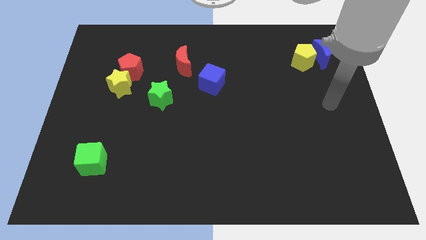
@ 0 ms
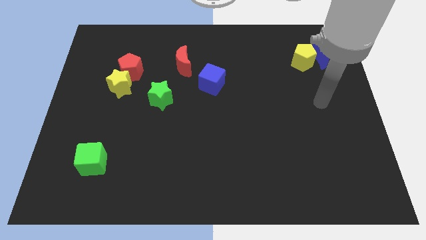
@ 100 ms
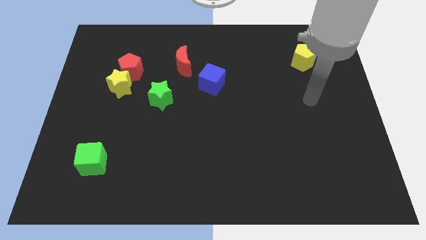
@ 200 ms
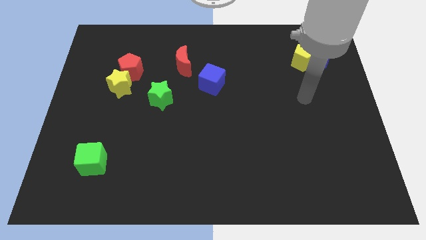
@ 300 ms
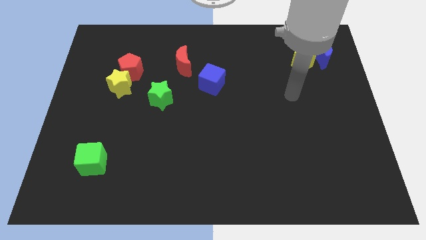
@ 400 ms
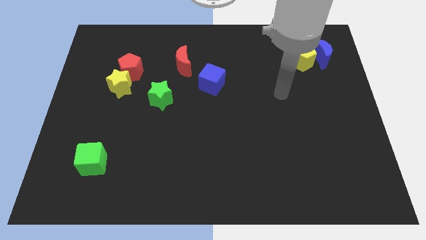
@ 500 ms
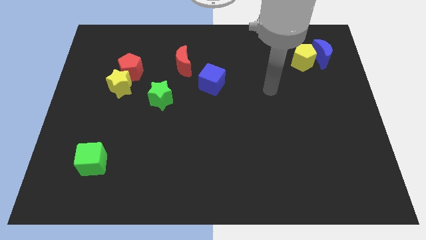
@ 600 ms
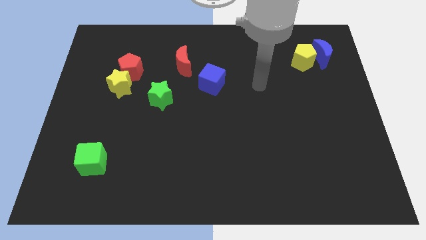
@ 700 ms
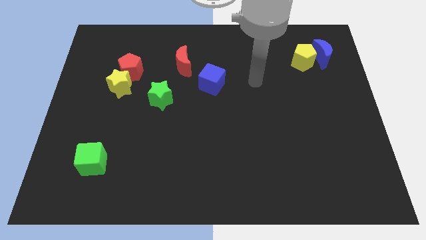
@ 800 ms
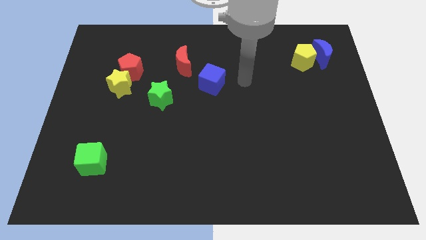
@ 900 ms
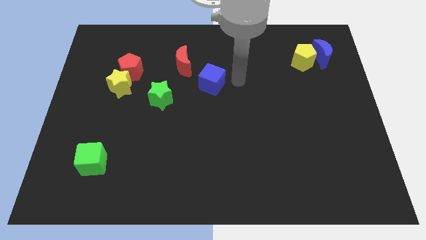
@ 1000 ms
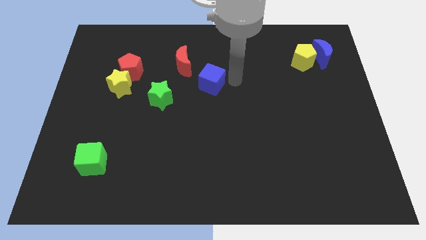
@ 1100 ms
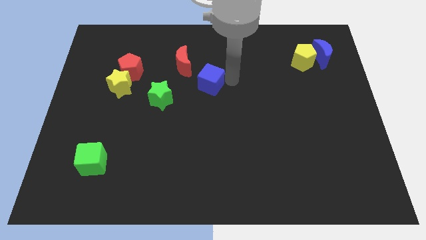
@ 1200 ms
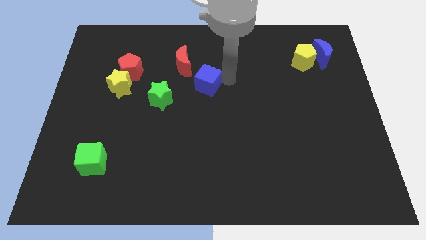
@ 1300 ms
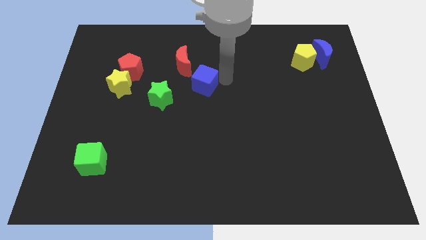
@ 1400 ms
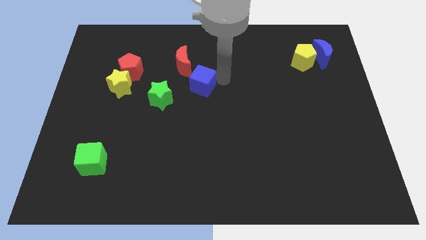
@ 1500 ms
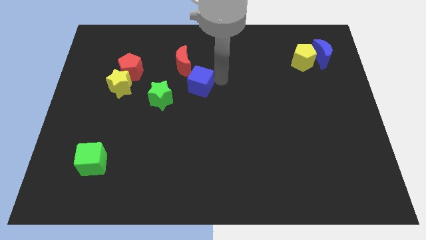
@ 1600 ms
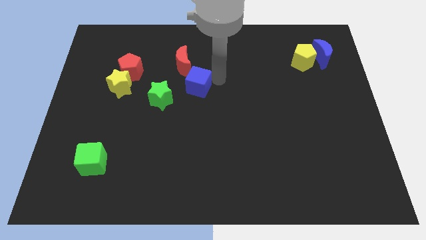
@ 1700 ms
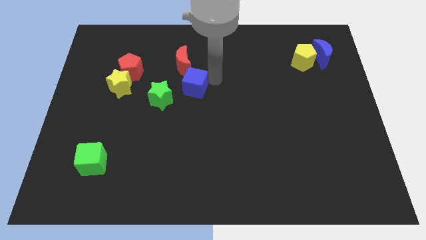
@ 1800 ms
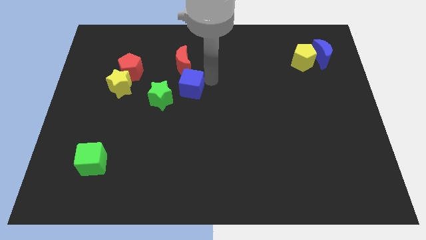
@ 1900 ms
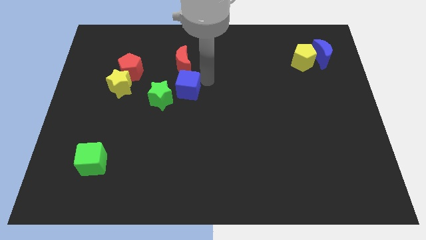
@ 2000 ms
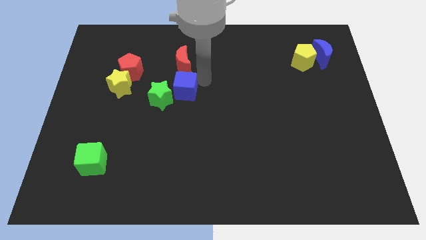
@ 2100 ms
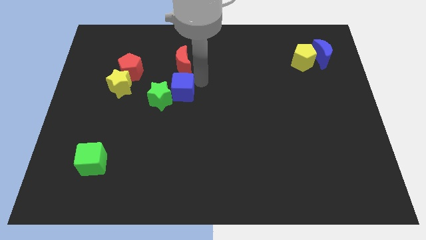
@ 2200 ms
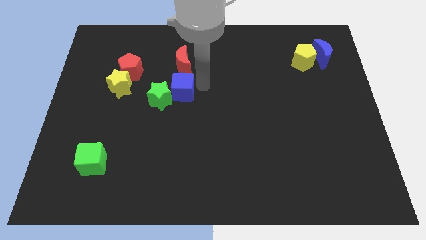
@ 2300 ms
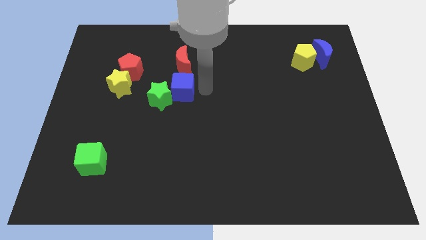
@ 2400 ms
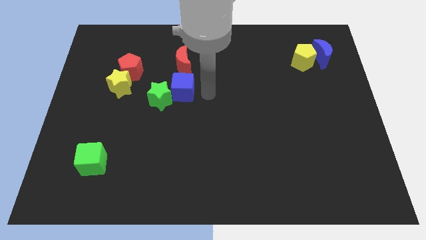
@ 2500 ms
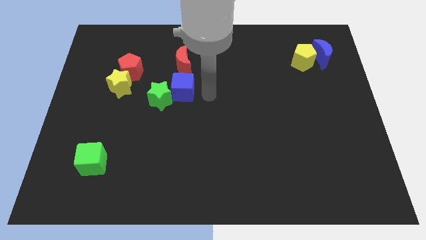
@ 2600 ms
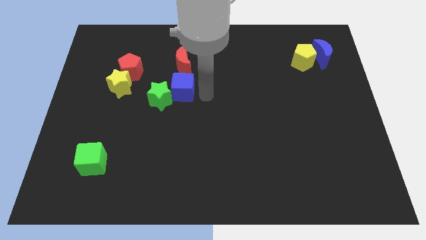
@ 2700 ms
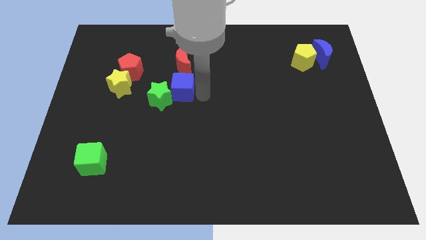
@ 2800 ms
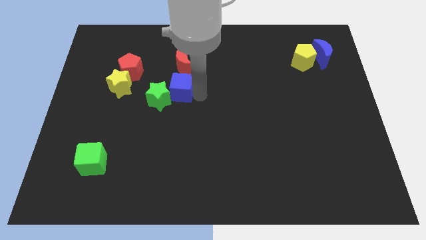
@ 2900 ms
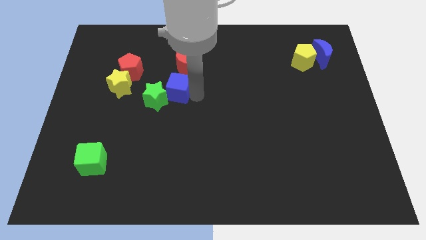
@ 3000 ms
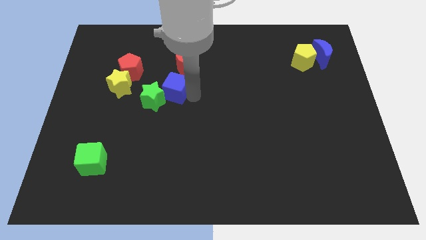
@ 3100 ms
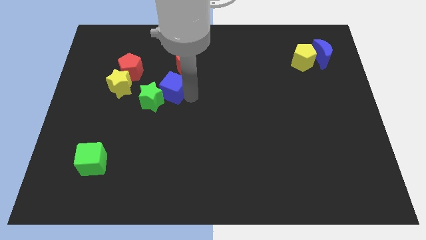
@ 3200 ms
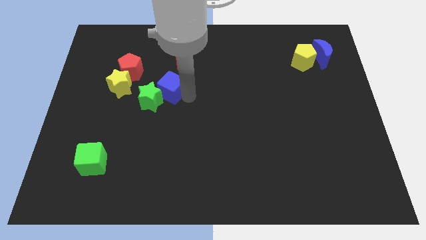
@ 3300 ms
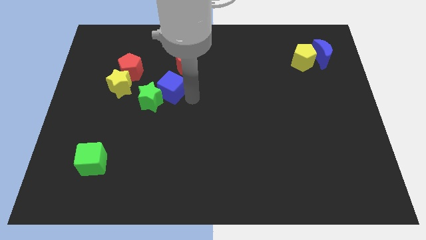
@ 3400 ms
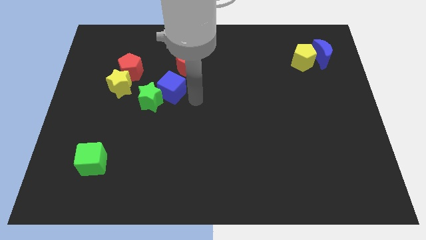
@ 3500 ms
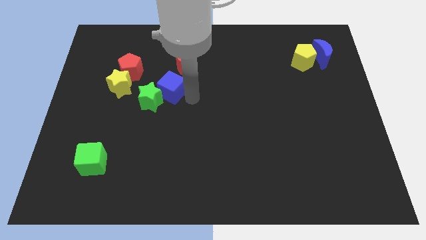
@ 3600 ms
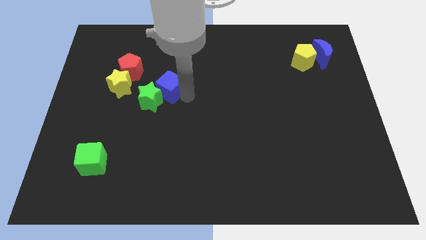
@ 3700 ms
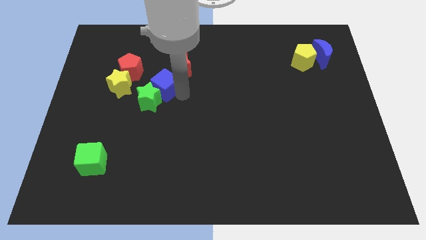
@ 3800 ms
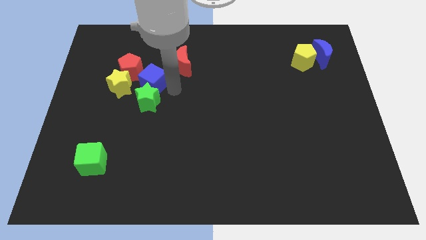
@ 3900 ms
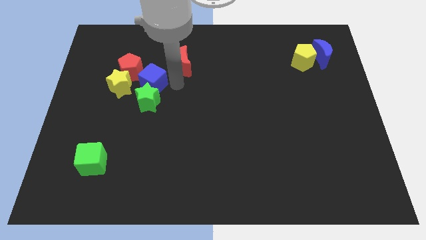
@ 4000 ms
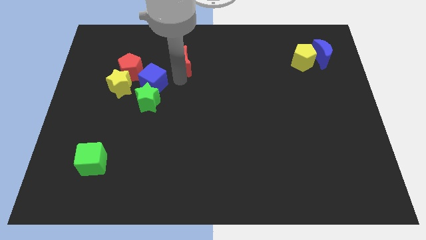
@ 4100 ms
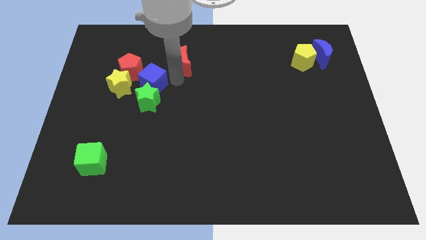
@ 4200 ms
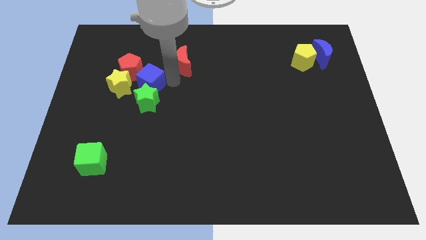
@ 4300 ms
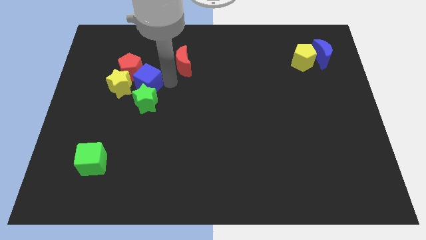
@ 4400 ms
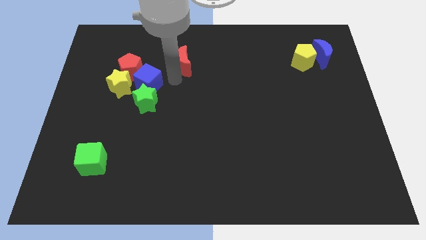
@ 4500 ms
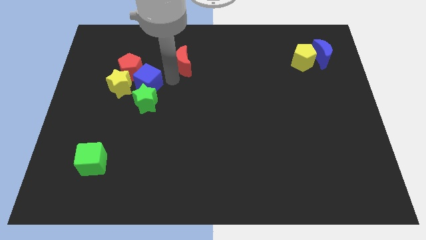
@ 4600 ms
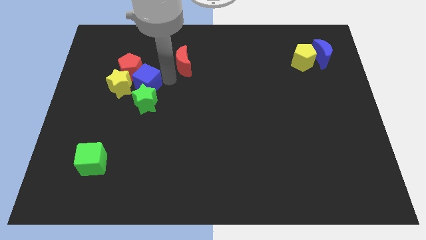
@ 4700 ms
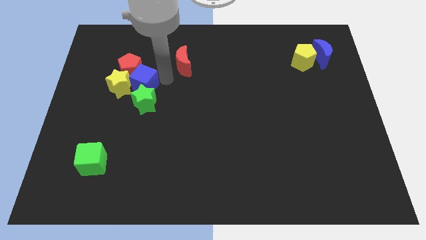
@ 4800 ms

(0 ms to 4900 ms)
push the blue cube next to the yellow star

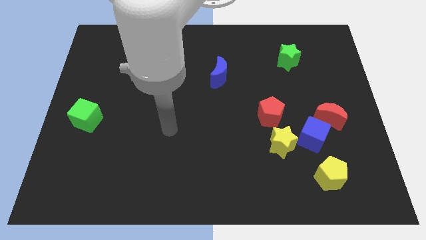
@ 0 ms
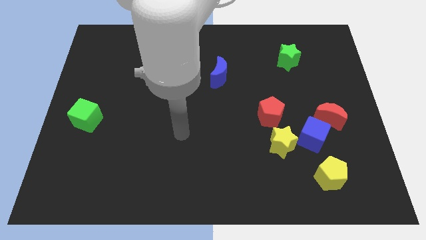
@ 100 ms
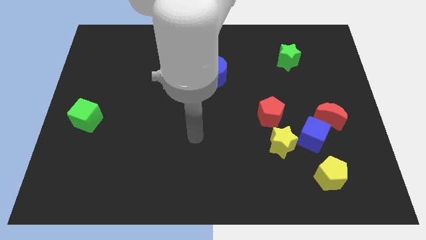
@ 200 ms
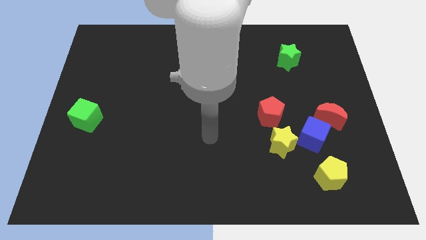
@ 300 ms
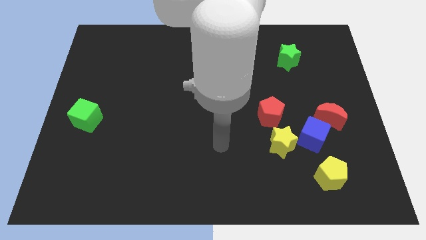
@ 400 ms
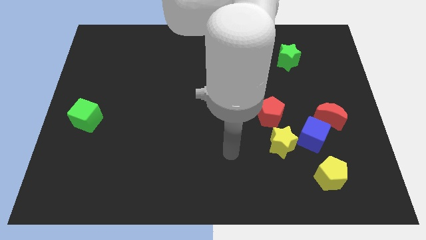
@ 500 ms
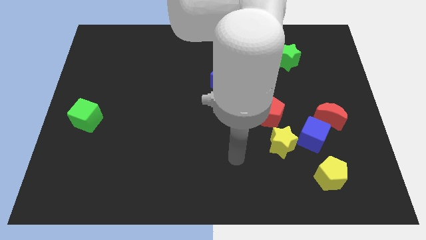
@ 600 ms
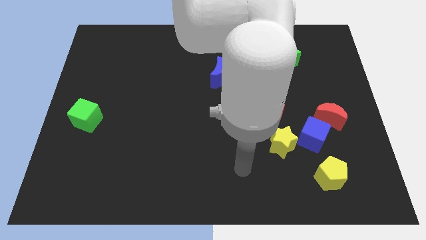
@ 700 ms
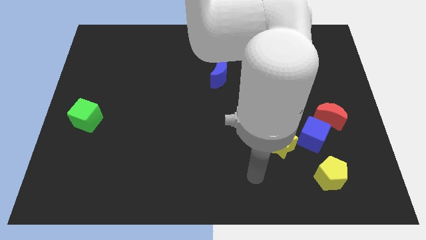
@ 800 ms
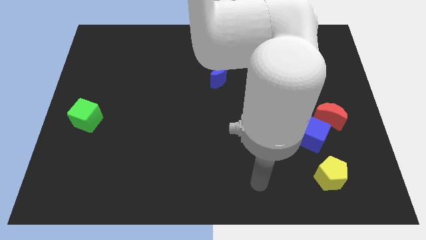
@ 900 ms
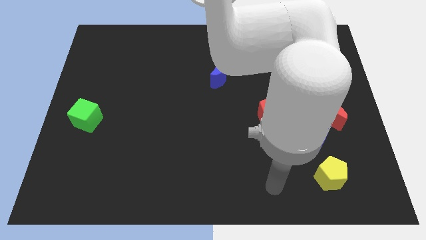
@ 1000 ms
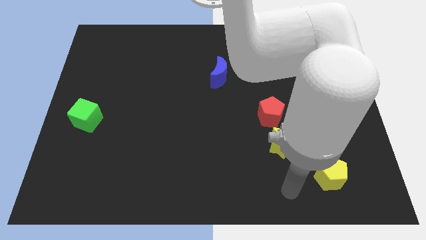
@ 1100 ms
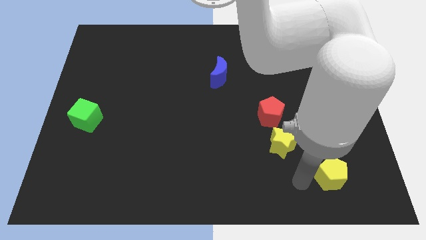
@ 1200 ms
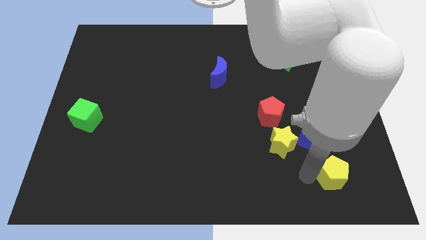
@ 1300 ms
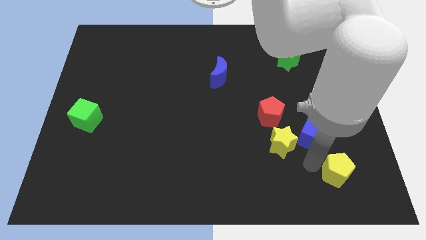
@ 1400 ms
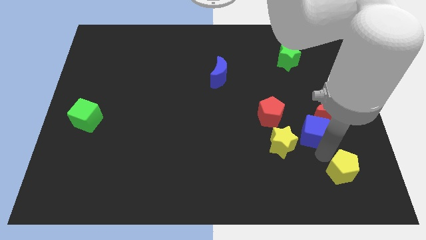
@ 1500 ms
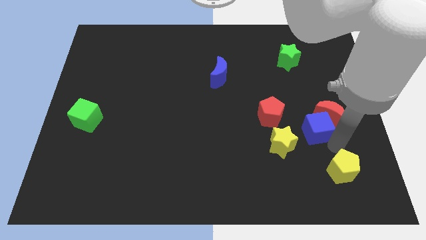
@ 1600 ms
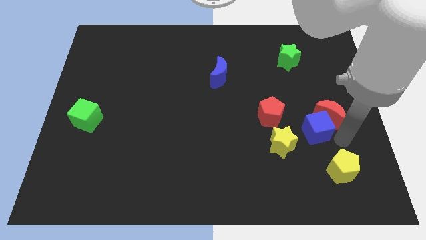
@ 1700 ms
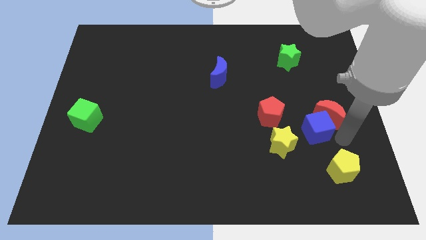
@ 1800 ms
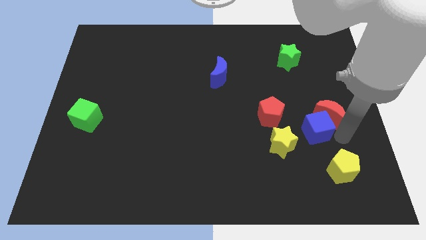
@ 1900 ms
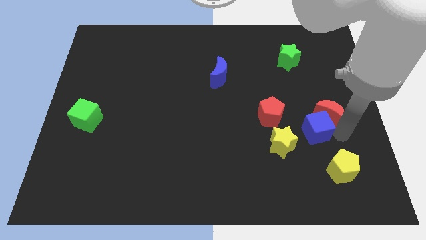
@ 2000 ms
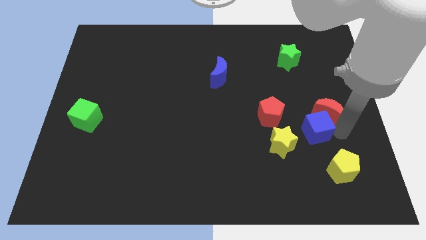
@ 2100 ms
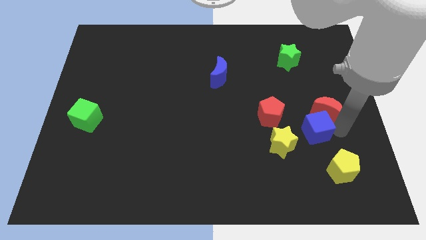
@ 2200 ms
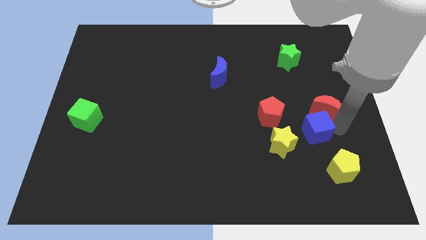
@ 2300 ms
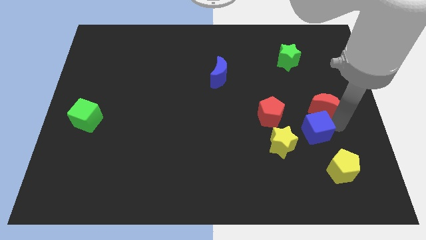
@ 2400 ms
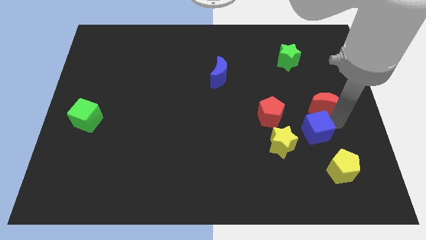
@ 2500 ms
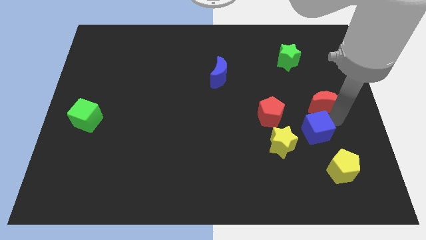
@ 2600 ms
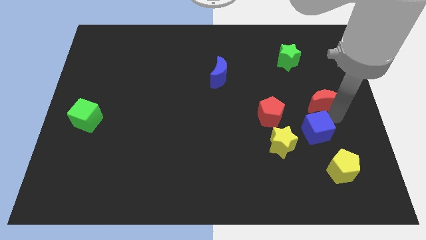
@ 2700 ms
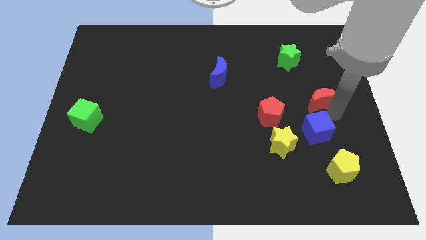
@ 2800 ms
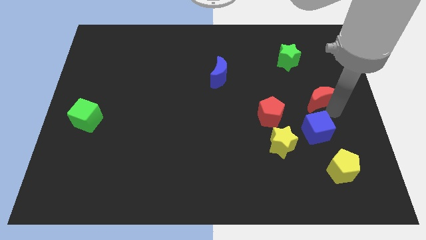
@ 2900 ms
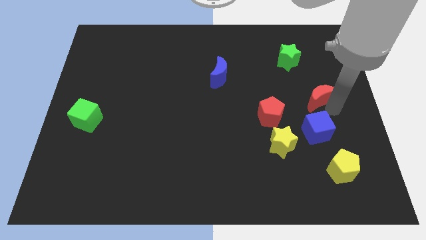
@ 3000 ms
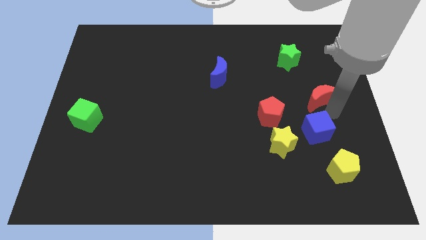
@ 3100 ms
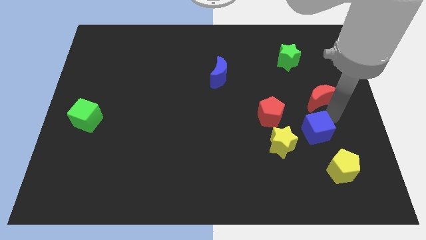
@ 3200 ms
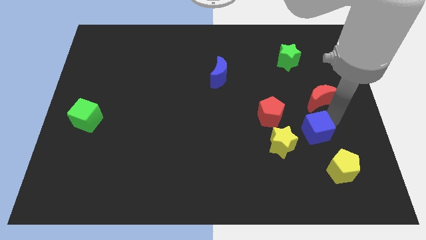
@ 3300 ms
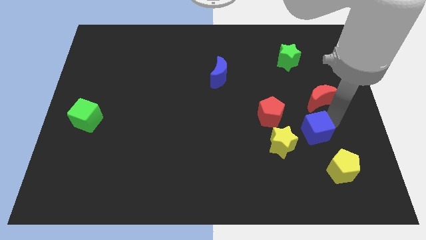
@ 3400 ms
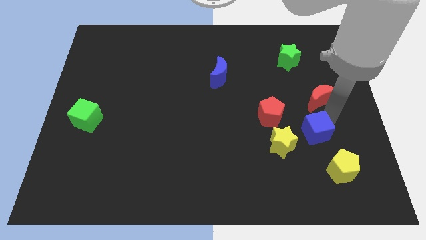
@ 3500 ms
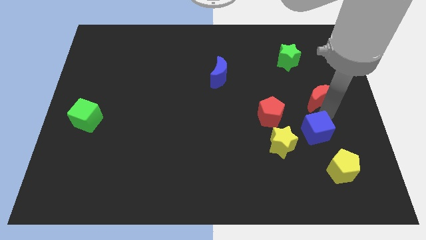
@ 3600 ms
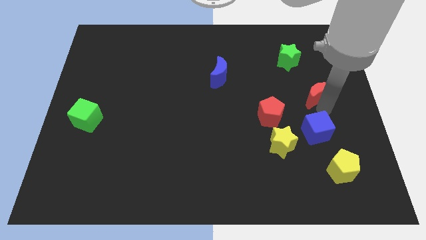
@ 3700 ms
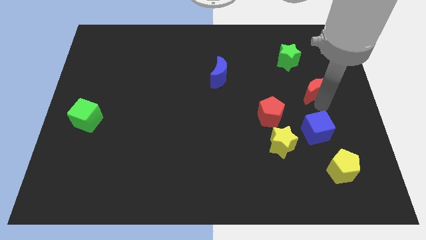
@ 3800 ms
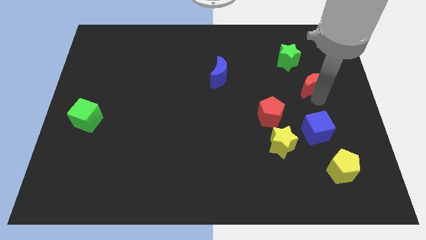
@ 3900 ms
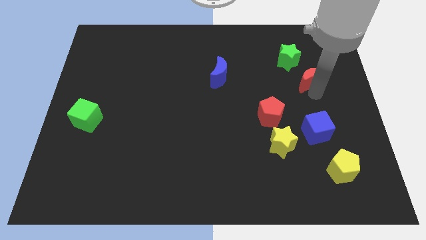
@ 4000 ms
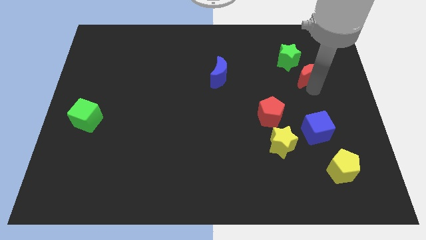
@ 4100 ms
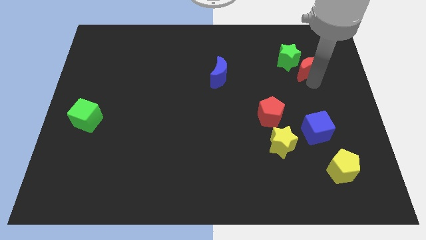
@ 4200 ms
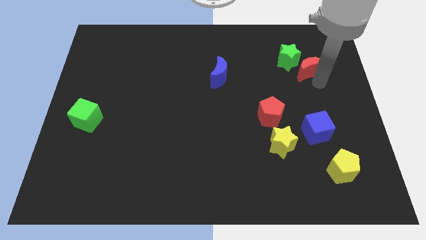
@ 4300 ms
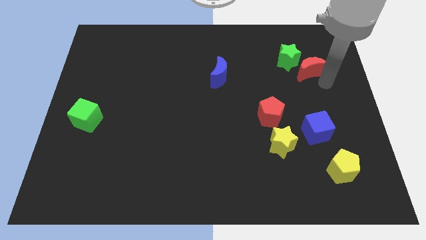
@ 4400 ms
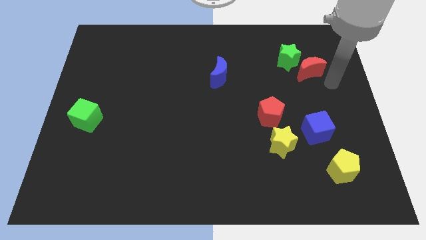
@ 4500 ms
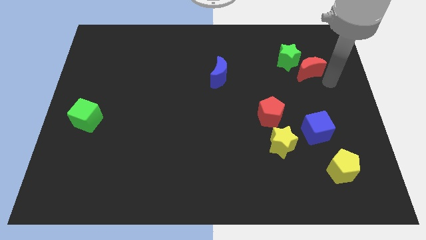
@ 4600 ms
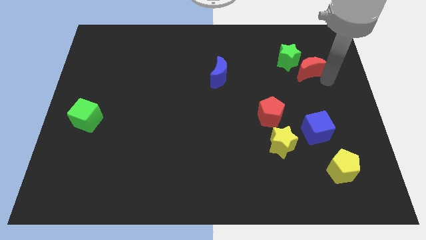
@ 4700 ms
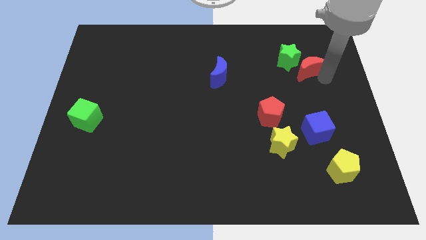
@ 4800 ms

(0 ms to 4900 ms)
put the red moon next to the green star
